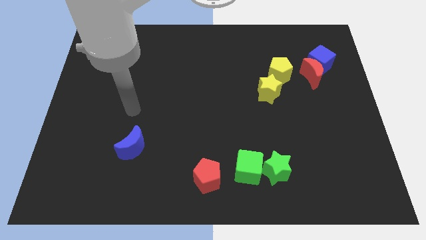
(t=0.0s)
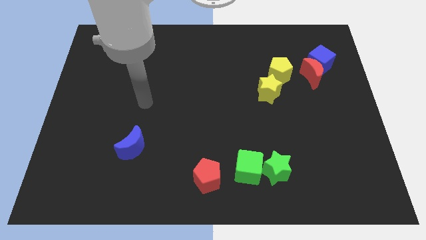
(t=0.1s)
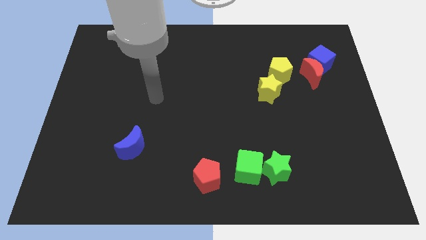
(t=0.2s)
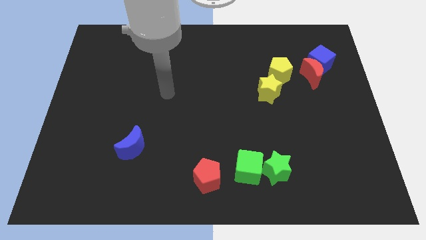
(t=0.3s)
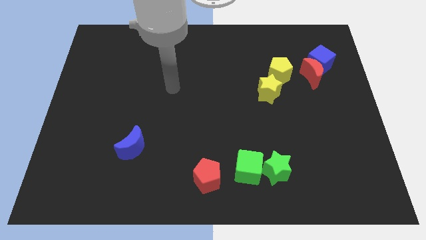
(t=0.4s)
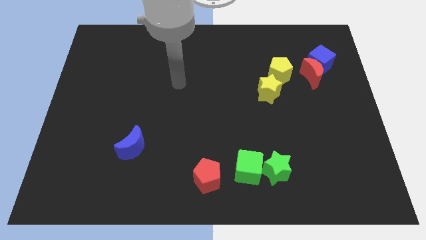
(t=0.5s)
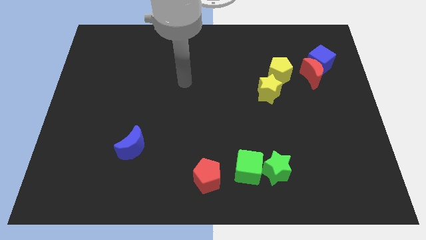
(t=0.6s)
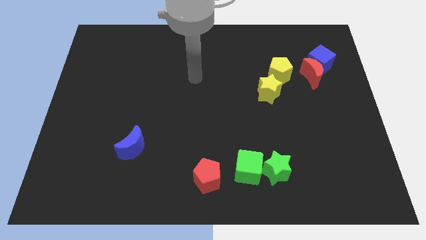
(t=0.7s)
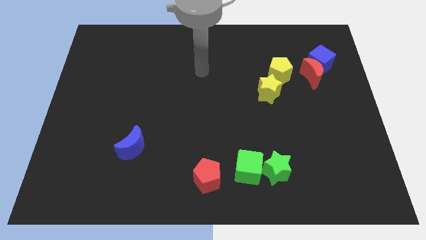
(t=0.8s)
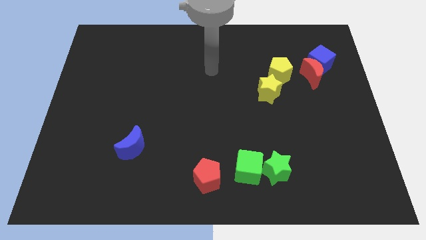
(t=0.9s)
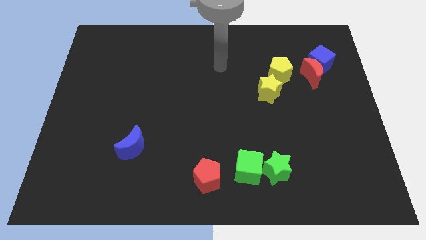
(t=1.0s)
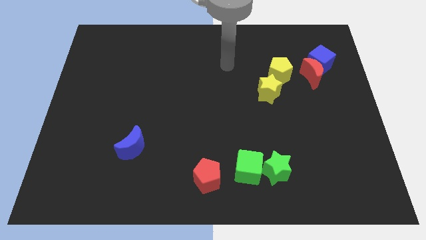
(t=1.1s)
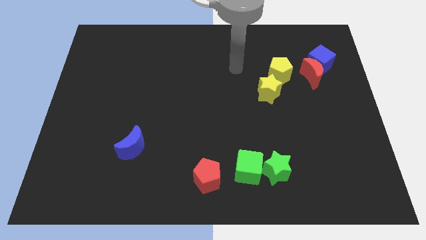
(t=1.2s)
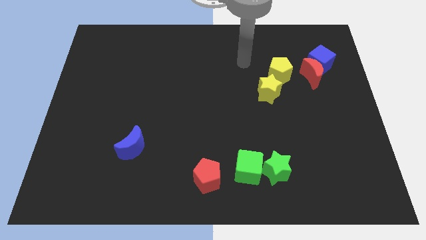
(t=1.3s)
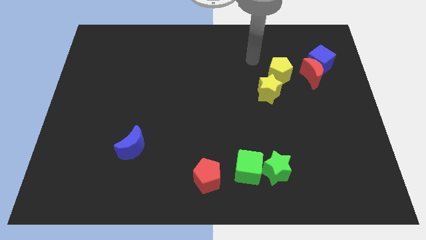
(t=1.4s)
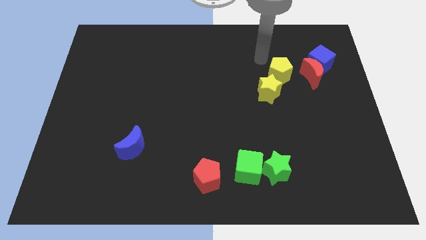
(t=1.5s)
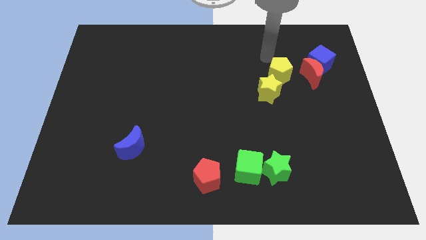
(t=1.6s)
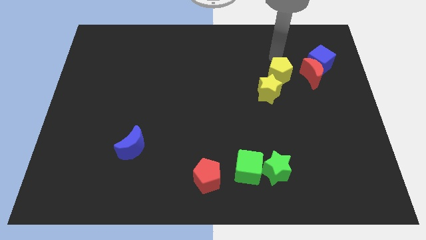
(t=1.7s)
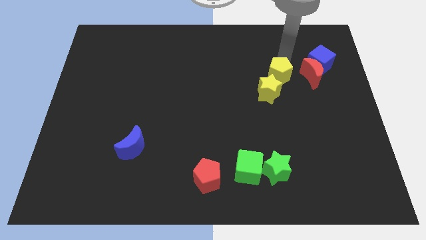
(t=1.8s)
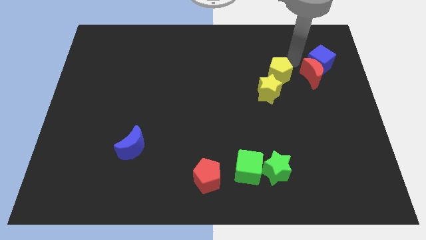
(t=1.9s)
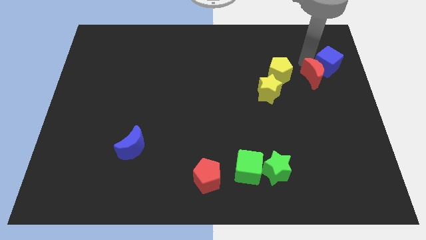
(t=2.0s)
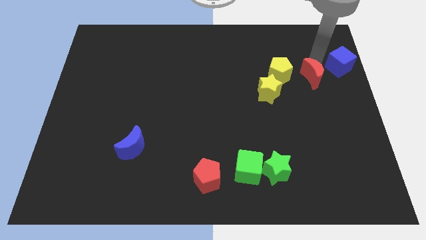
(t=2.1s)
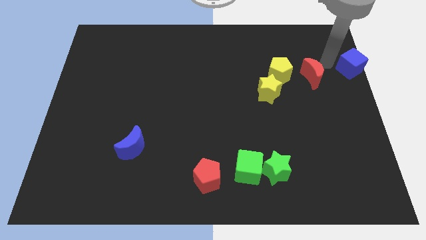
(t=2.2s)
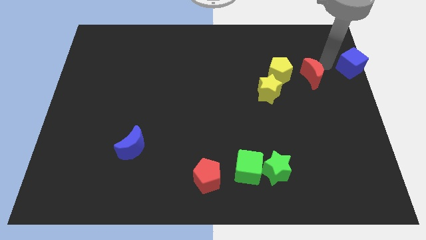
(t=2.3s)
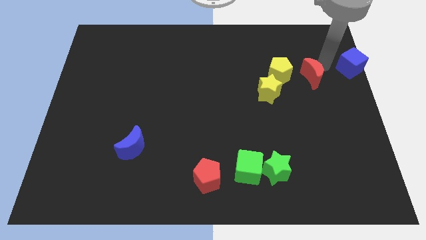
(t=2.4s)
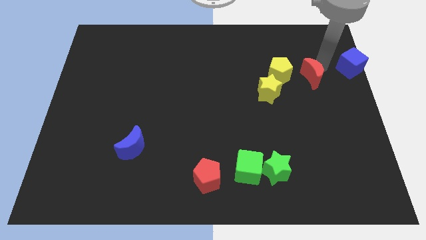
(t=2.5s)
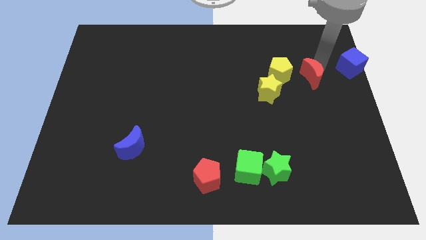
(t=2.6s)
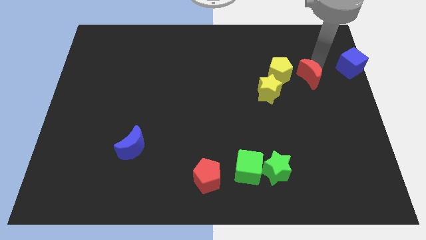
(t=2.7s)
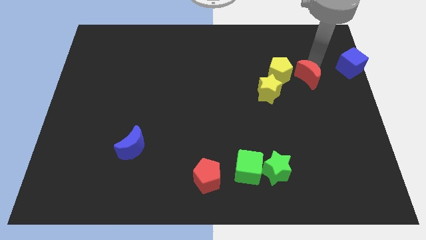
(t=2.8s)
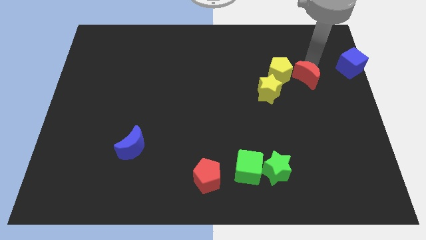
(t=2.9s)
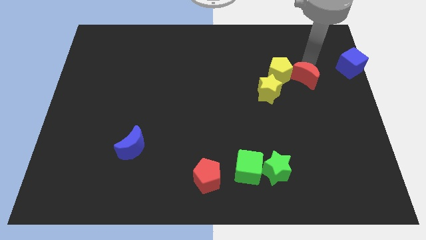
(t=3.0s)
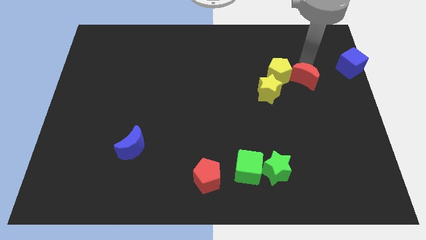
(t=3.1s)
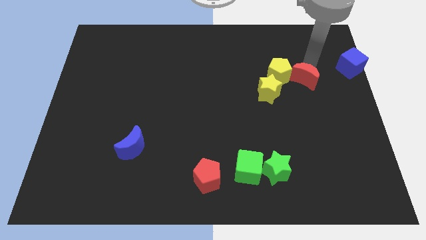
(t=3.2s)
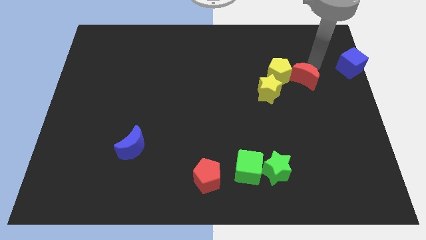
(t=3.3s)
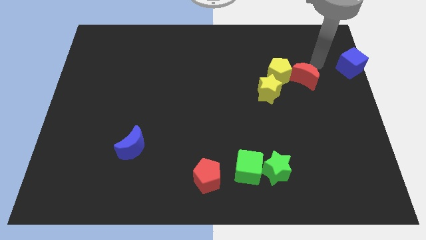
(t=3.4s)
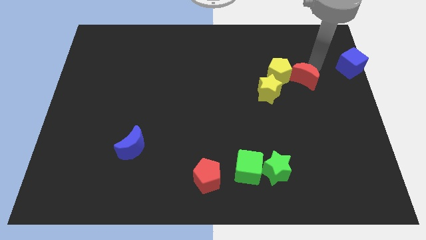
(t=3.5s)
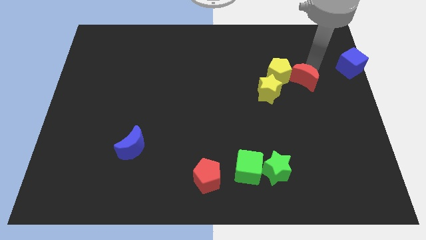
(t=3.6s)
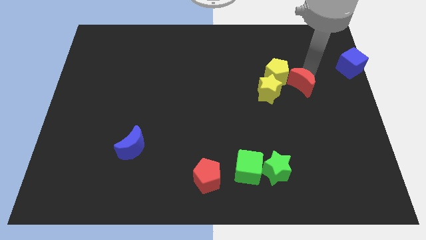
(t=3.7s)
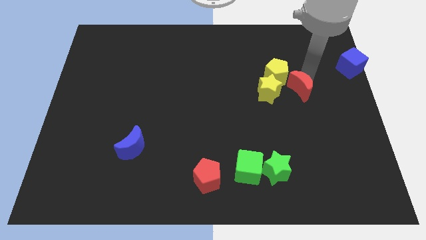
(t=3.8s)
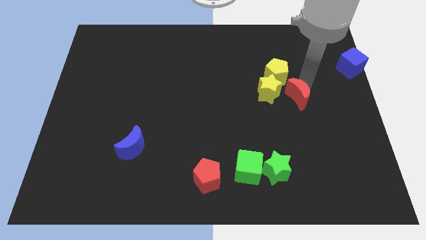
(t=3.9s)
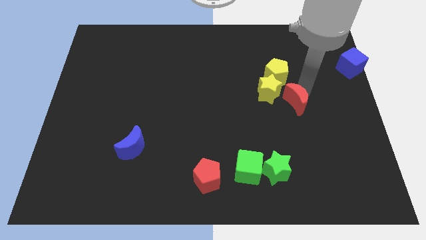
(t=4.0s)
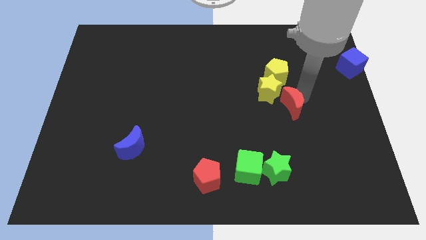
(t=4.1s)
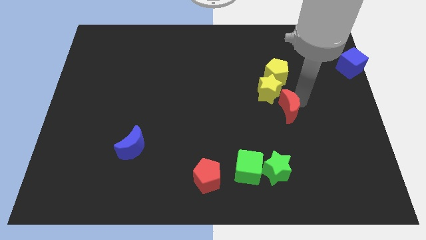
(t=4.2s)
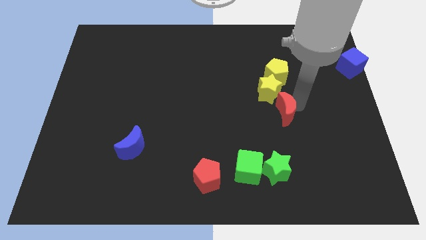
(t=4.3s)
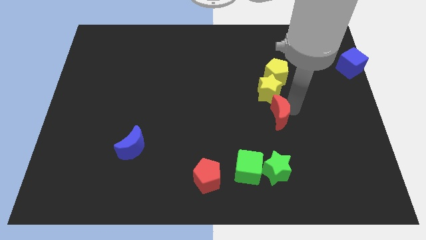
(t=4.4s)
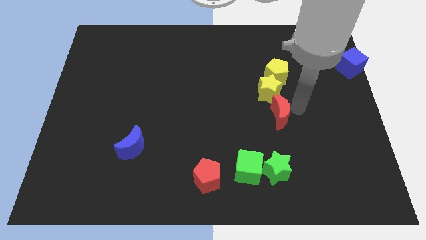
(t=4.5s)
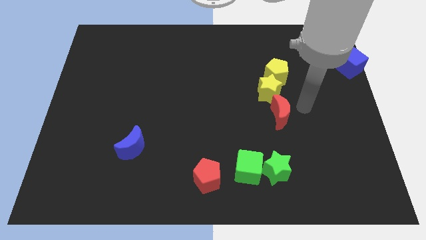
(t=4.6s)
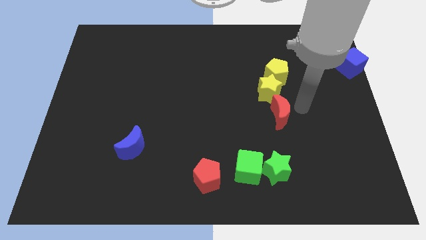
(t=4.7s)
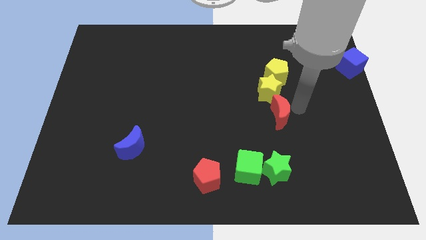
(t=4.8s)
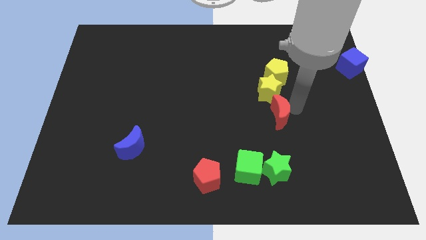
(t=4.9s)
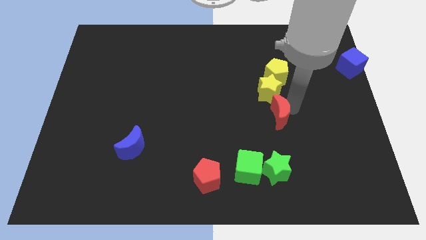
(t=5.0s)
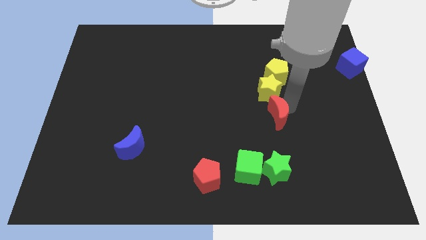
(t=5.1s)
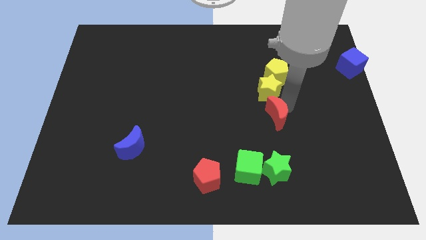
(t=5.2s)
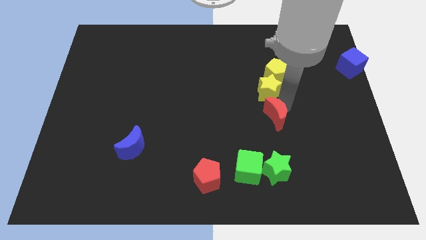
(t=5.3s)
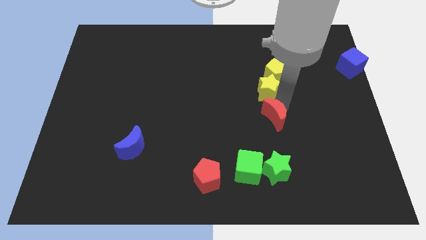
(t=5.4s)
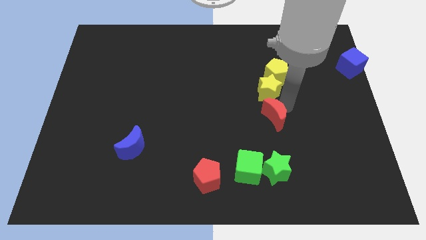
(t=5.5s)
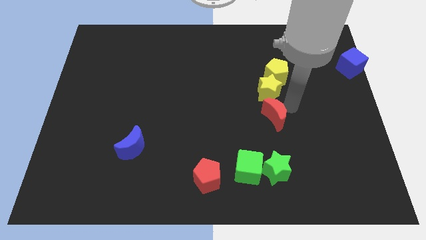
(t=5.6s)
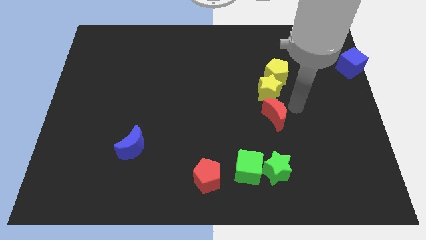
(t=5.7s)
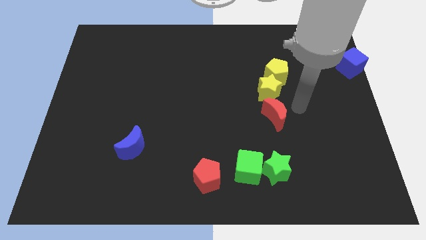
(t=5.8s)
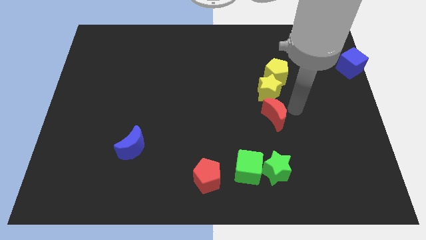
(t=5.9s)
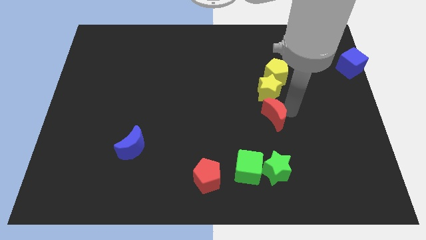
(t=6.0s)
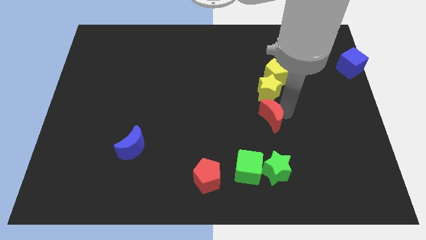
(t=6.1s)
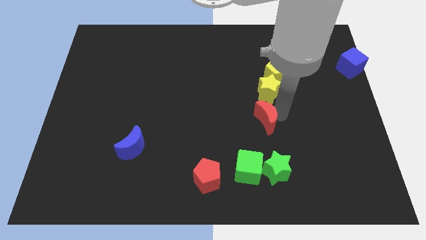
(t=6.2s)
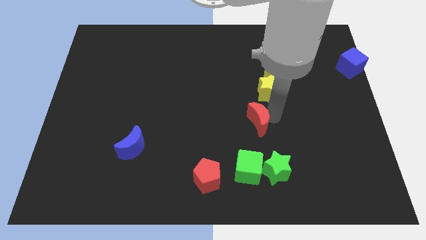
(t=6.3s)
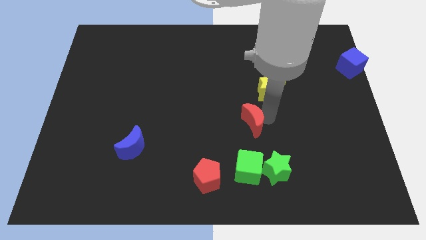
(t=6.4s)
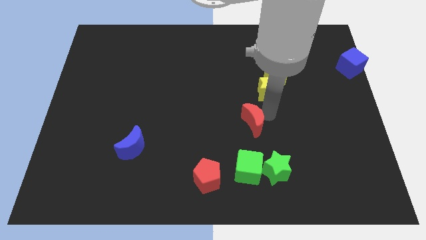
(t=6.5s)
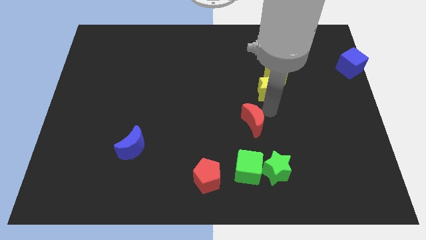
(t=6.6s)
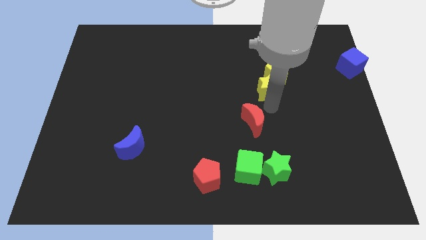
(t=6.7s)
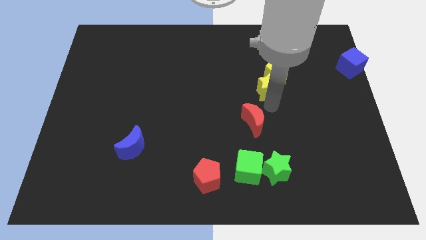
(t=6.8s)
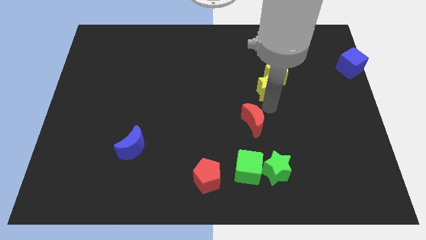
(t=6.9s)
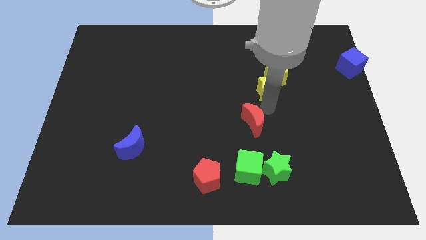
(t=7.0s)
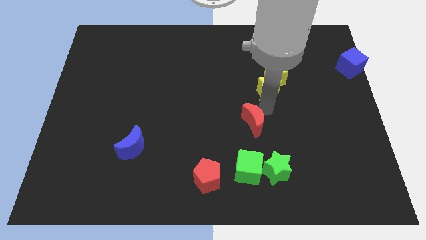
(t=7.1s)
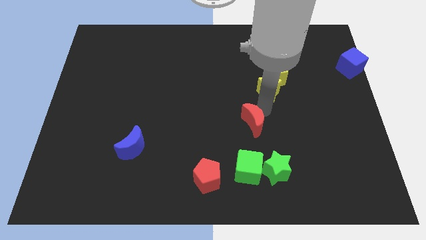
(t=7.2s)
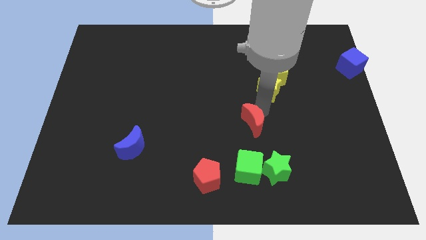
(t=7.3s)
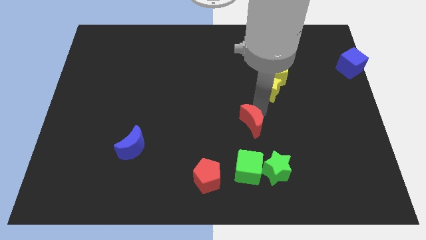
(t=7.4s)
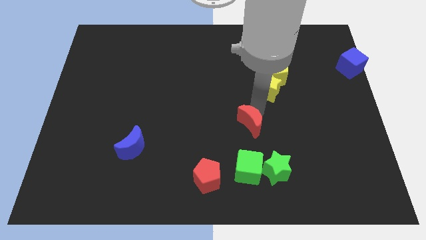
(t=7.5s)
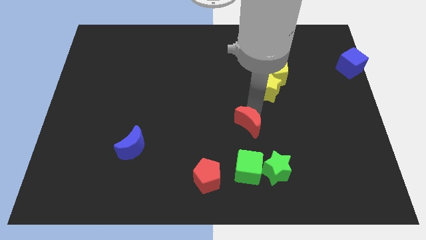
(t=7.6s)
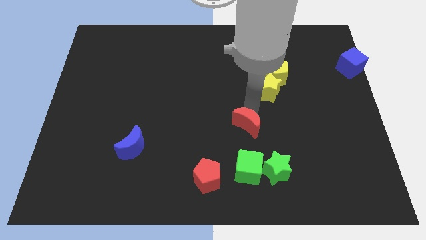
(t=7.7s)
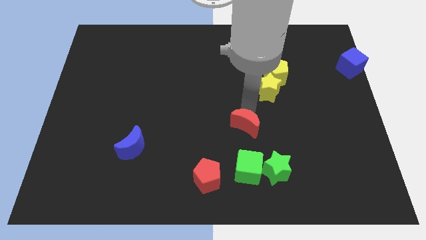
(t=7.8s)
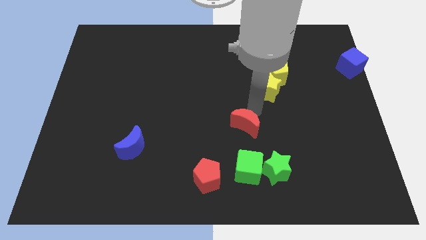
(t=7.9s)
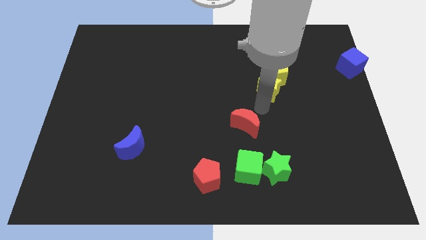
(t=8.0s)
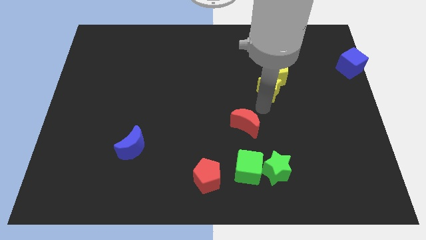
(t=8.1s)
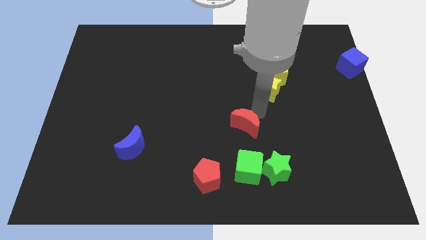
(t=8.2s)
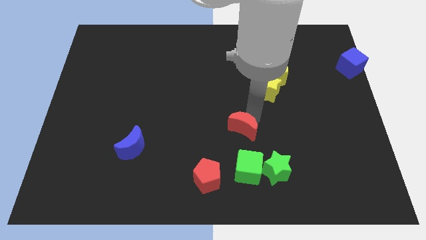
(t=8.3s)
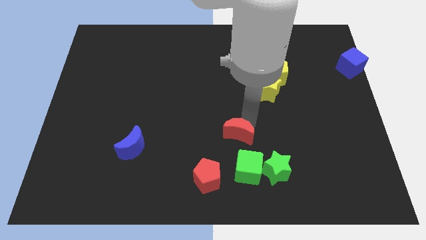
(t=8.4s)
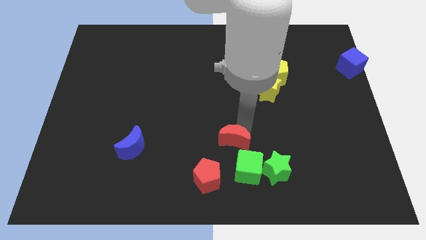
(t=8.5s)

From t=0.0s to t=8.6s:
slide the red moon to the top left of the green cube
